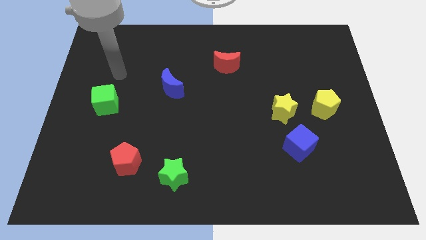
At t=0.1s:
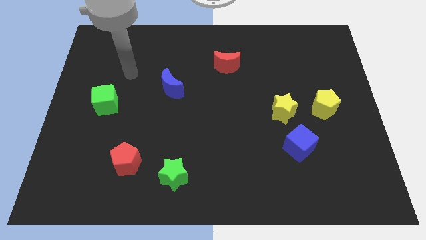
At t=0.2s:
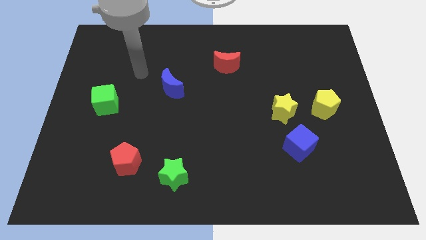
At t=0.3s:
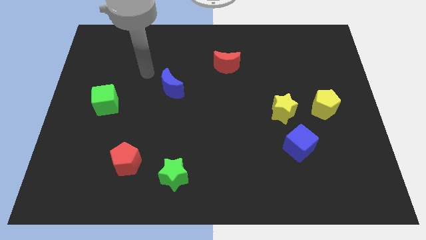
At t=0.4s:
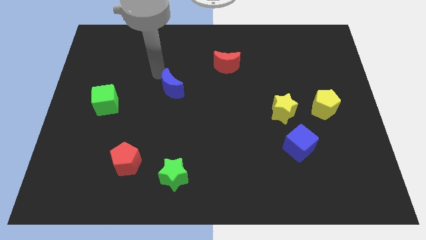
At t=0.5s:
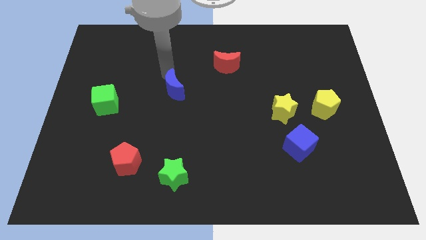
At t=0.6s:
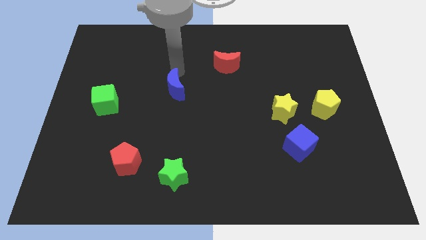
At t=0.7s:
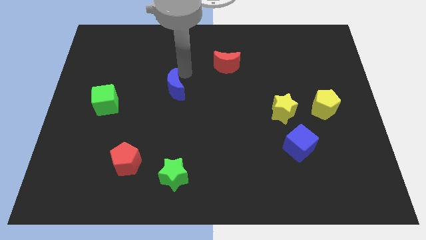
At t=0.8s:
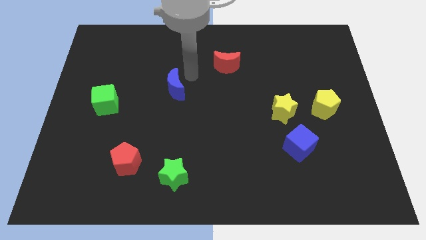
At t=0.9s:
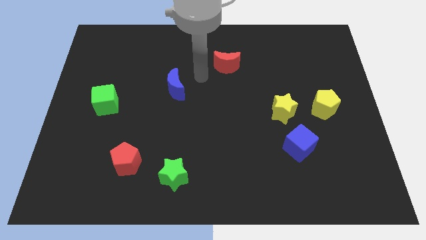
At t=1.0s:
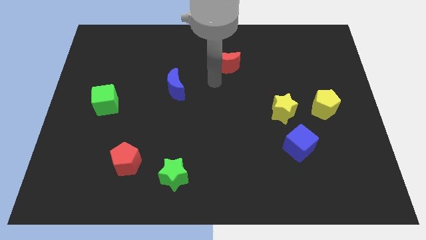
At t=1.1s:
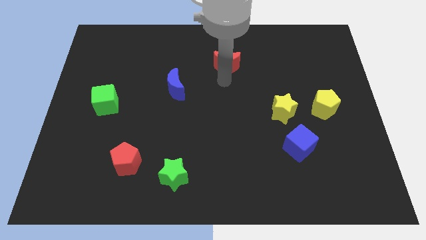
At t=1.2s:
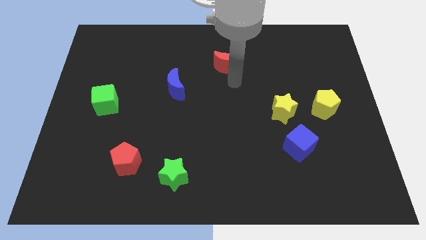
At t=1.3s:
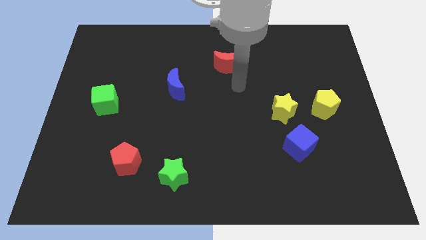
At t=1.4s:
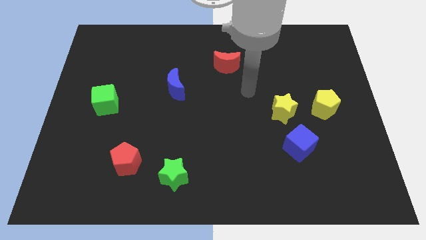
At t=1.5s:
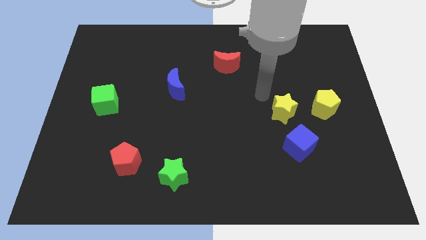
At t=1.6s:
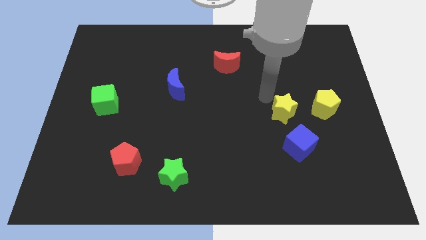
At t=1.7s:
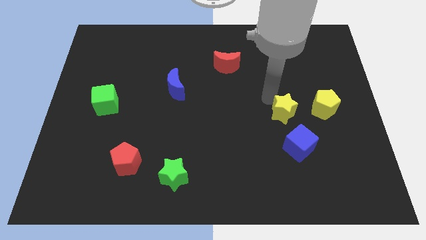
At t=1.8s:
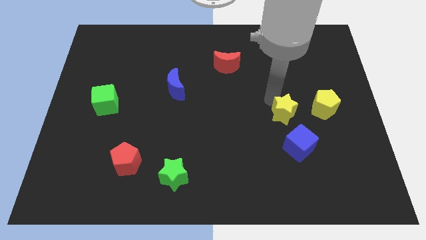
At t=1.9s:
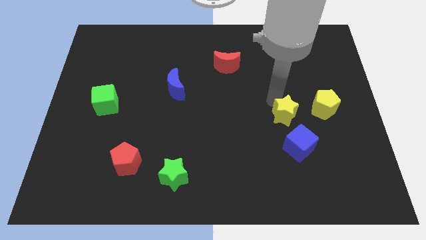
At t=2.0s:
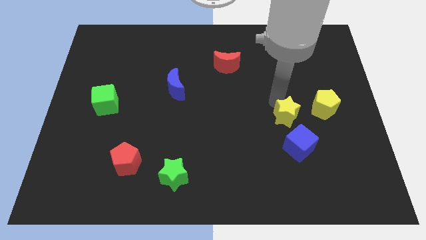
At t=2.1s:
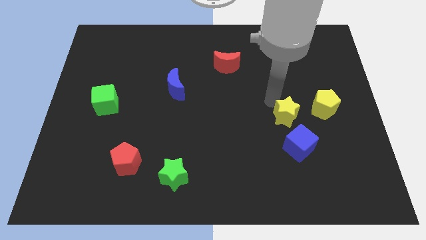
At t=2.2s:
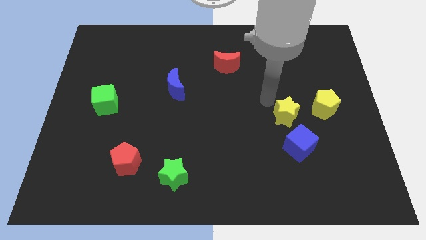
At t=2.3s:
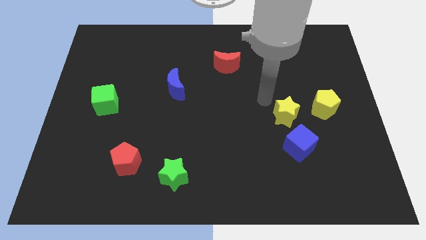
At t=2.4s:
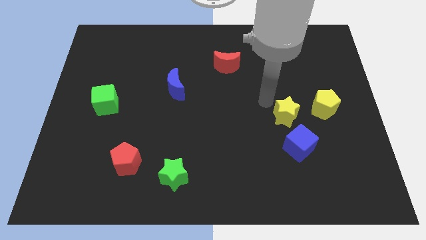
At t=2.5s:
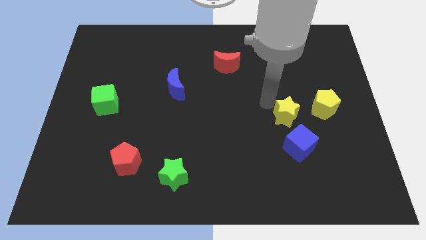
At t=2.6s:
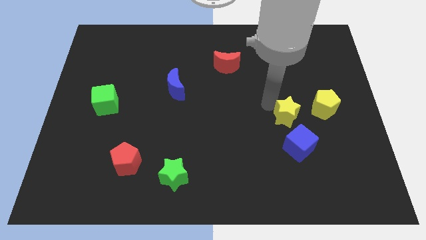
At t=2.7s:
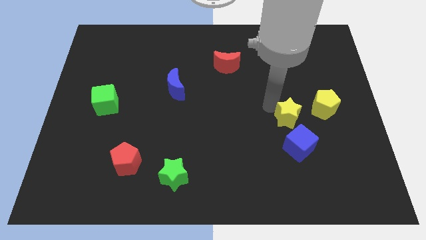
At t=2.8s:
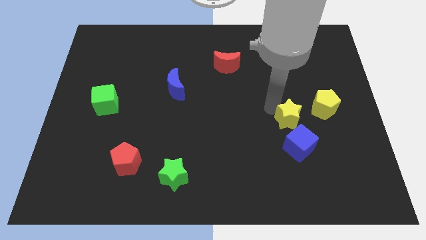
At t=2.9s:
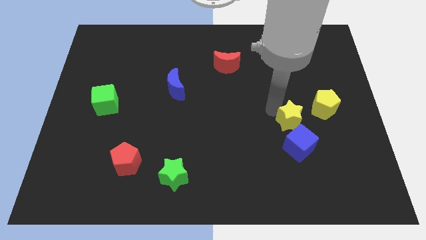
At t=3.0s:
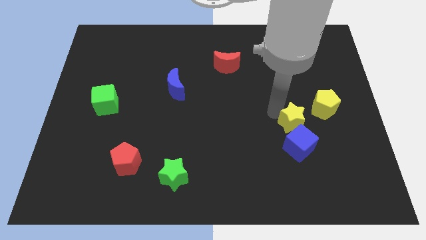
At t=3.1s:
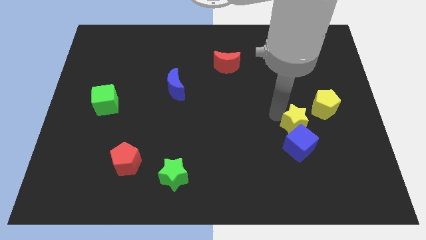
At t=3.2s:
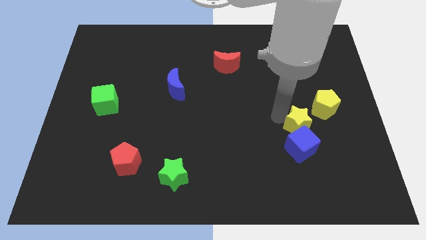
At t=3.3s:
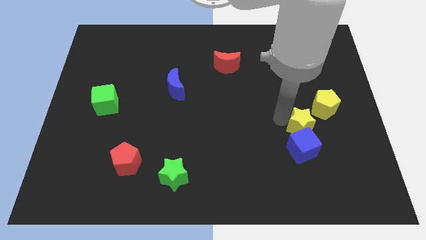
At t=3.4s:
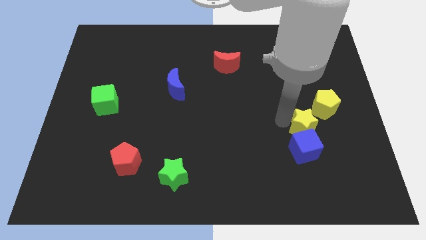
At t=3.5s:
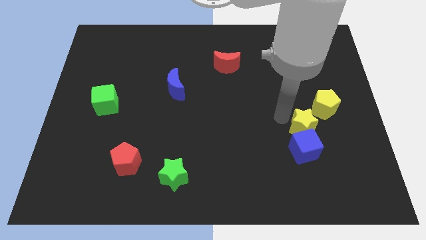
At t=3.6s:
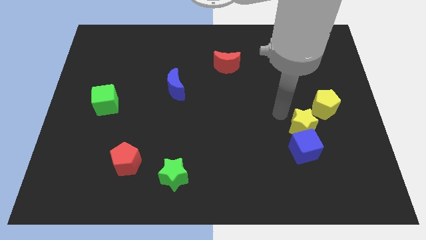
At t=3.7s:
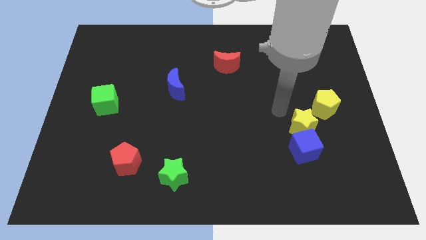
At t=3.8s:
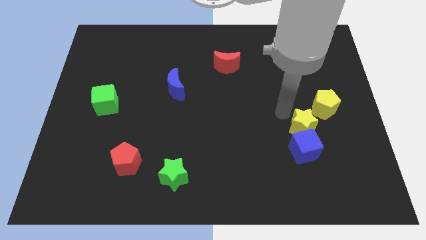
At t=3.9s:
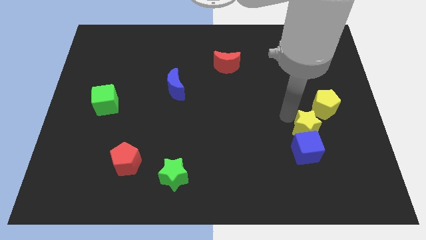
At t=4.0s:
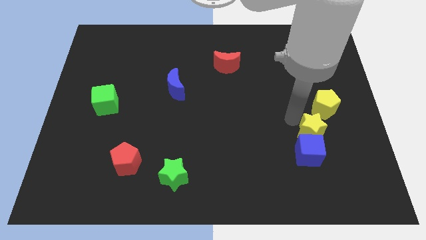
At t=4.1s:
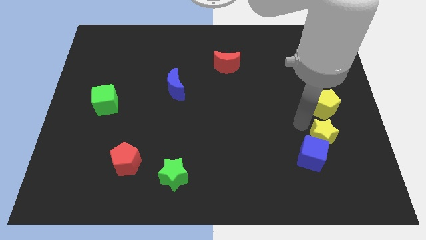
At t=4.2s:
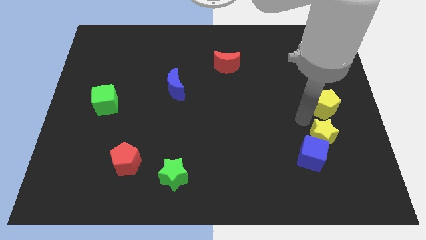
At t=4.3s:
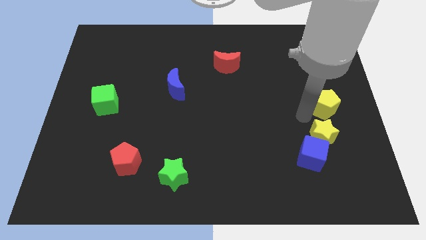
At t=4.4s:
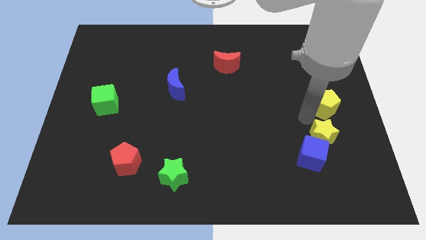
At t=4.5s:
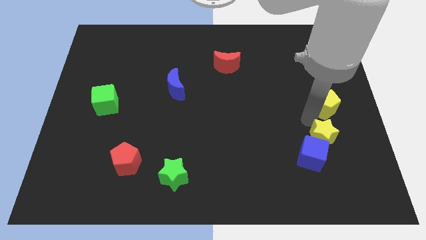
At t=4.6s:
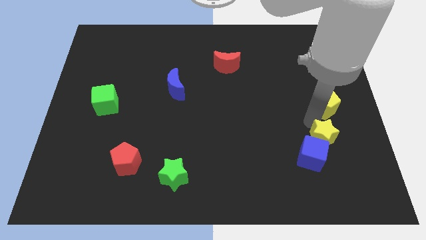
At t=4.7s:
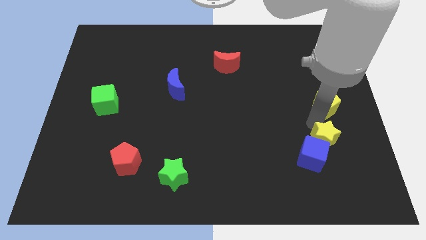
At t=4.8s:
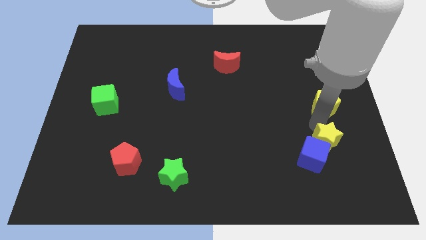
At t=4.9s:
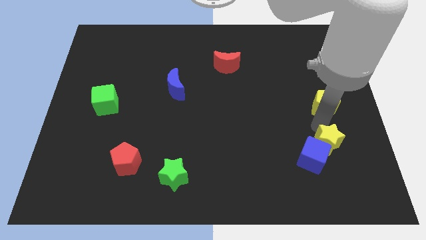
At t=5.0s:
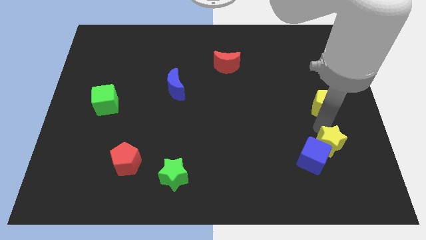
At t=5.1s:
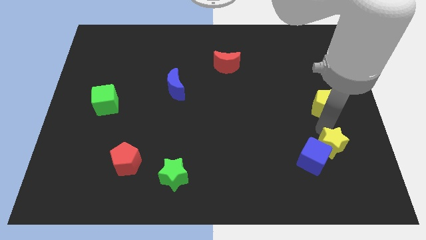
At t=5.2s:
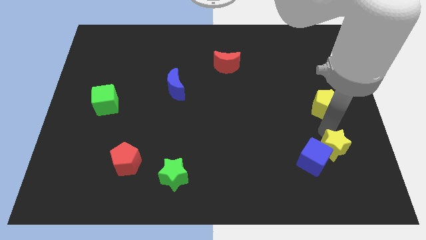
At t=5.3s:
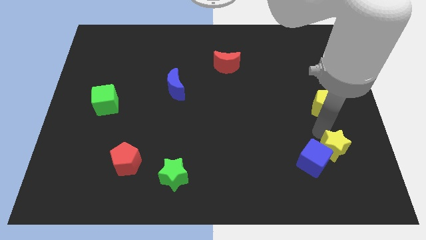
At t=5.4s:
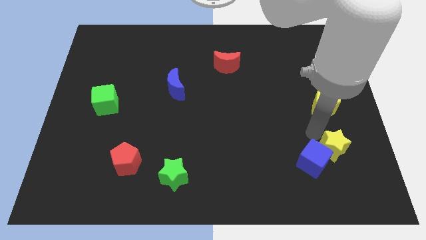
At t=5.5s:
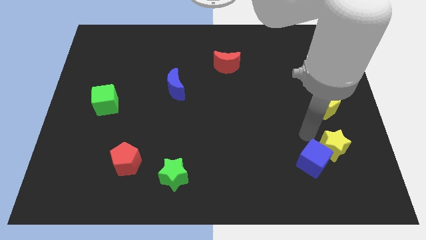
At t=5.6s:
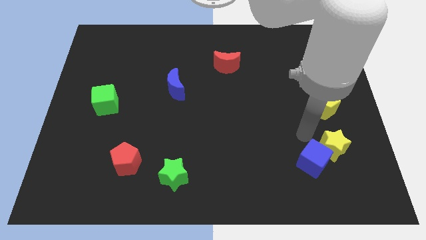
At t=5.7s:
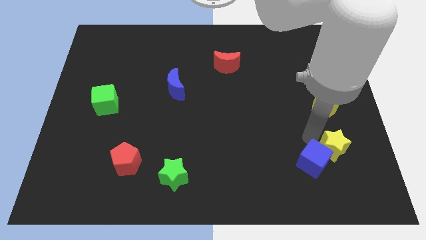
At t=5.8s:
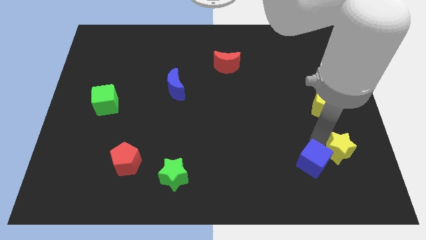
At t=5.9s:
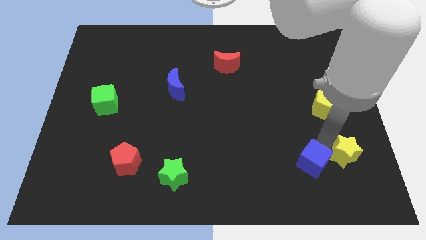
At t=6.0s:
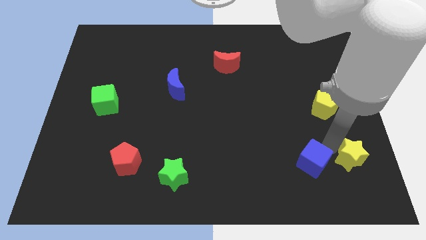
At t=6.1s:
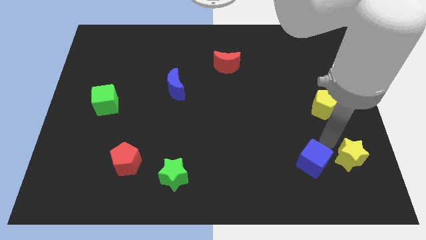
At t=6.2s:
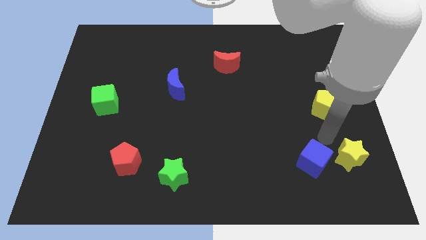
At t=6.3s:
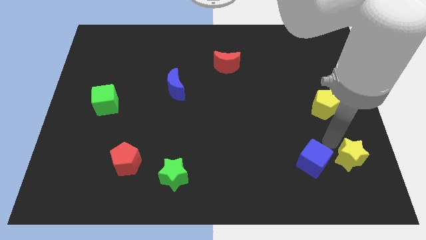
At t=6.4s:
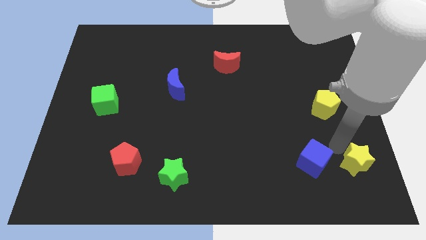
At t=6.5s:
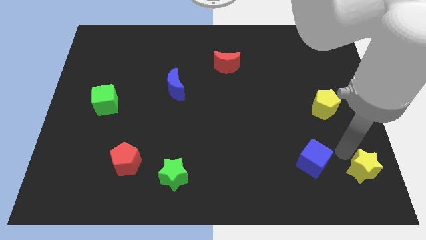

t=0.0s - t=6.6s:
move the yellow star to the bottom right

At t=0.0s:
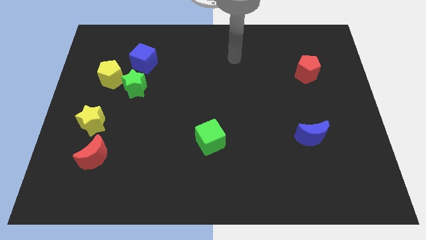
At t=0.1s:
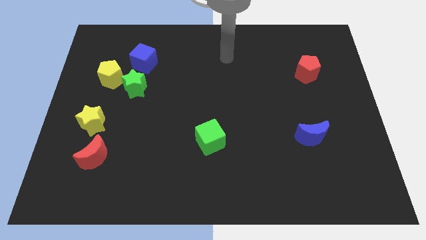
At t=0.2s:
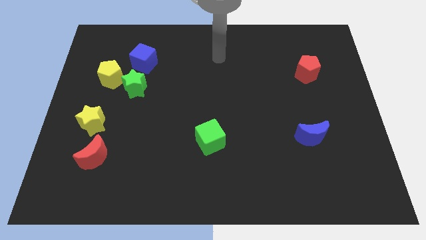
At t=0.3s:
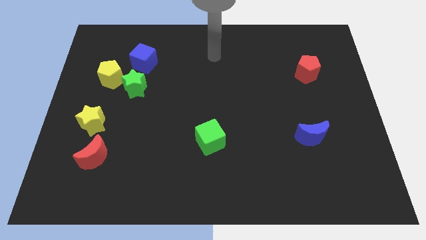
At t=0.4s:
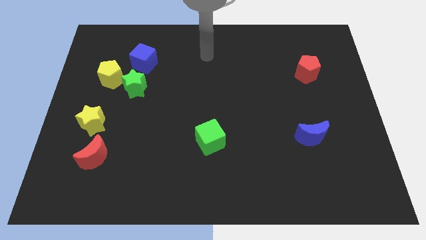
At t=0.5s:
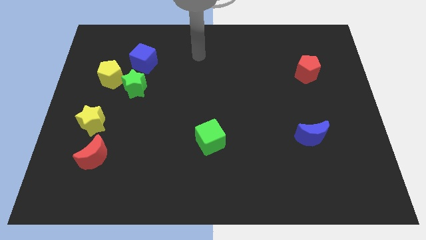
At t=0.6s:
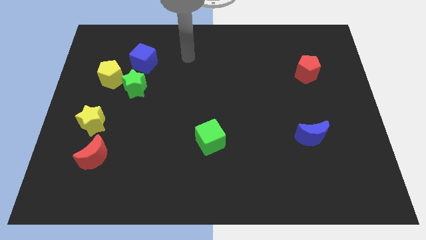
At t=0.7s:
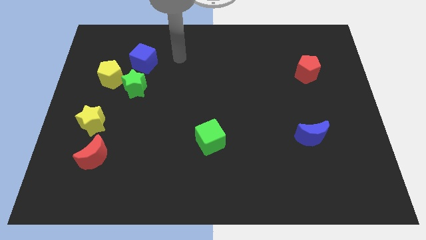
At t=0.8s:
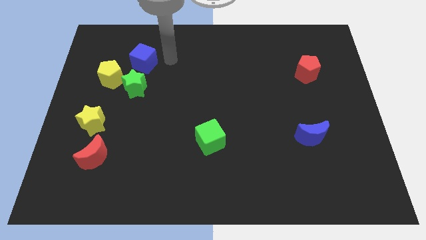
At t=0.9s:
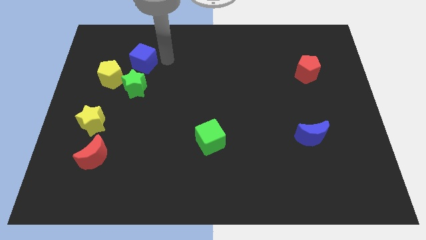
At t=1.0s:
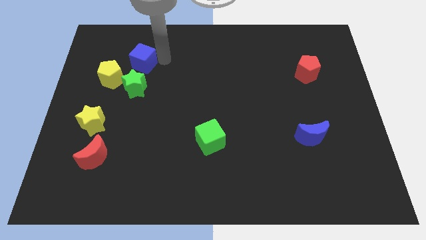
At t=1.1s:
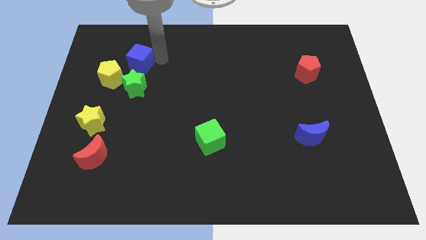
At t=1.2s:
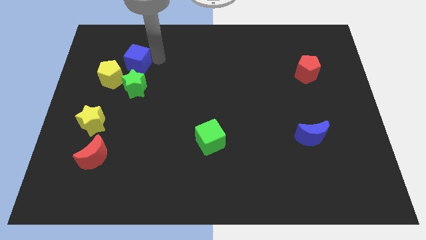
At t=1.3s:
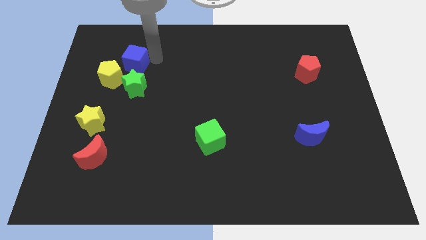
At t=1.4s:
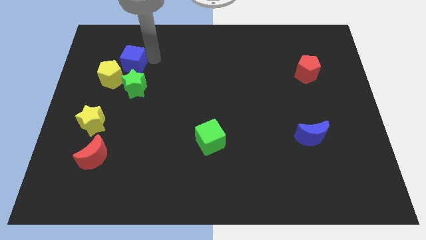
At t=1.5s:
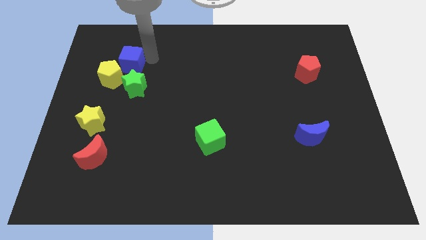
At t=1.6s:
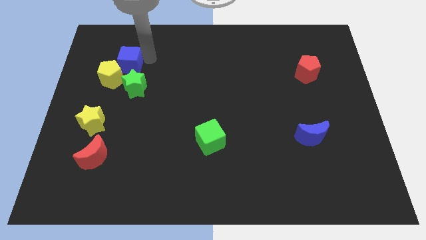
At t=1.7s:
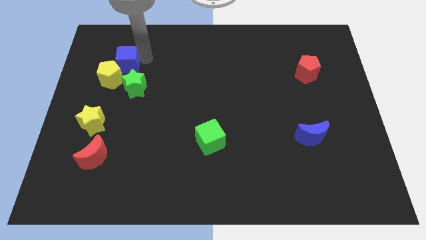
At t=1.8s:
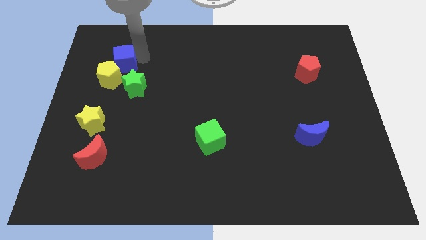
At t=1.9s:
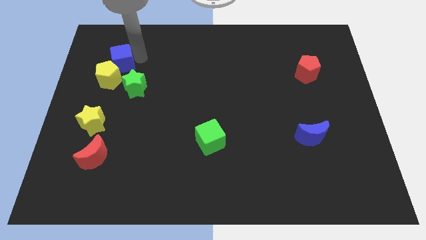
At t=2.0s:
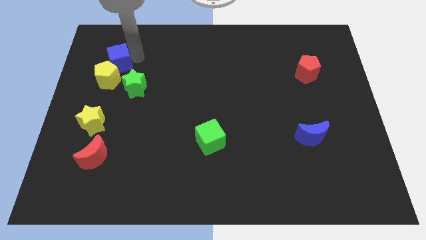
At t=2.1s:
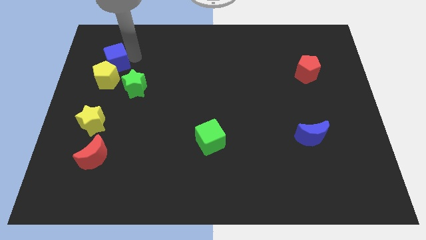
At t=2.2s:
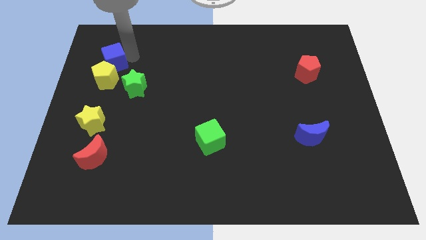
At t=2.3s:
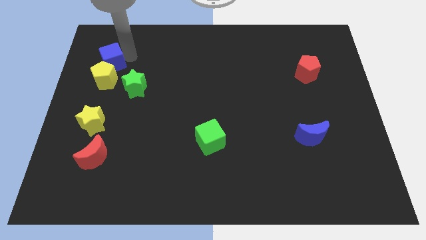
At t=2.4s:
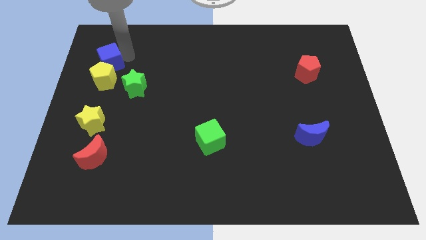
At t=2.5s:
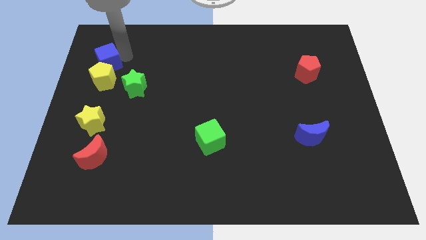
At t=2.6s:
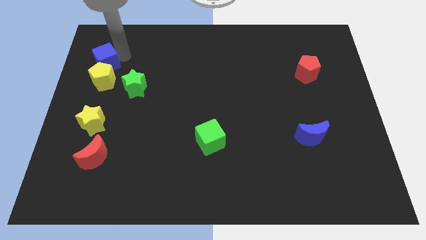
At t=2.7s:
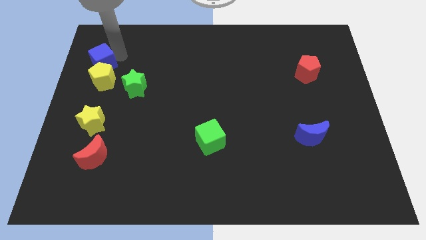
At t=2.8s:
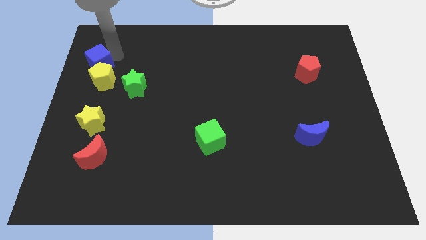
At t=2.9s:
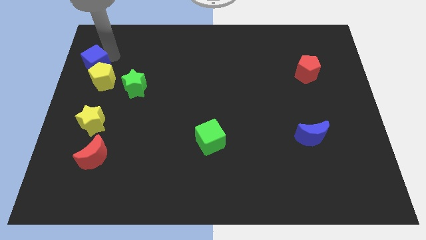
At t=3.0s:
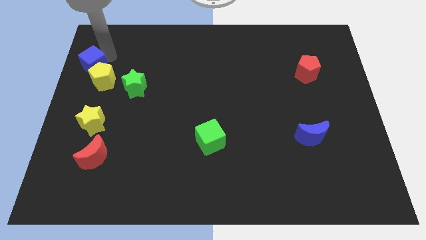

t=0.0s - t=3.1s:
push the blue cube to the center left
